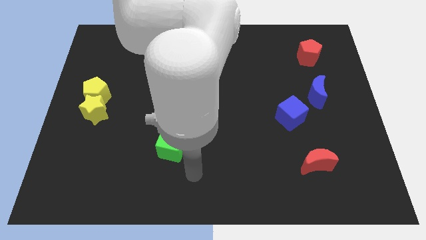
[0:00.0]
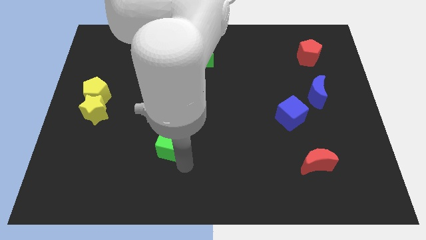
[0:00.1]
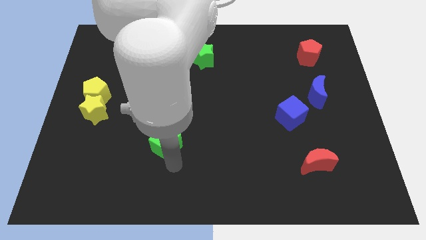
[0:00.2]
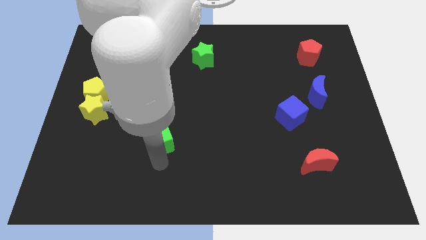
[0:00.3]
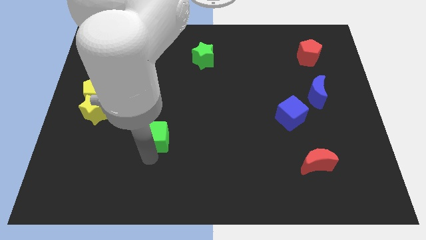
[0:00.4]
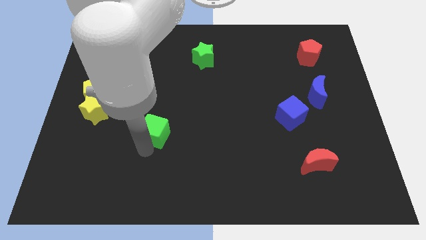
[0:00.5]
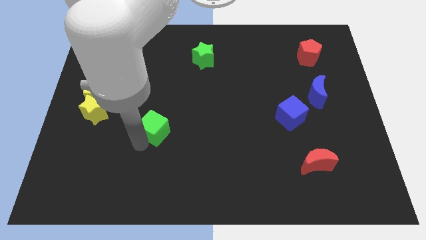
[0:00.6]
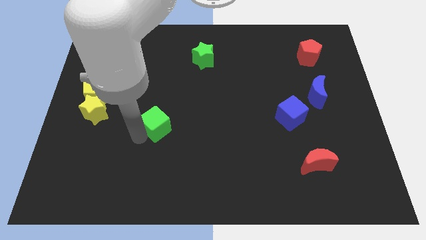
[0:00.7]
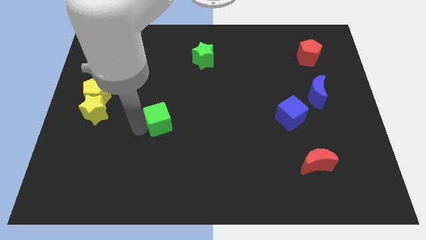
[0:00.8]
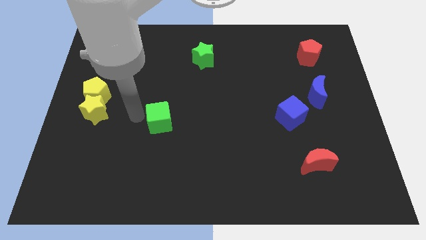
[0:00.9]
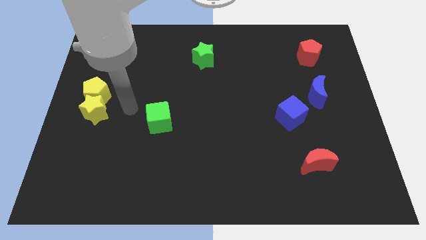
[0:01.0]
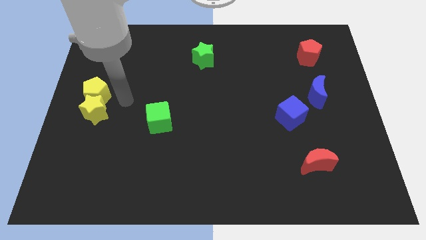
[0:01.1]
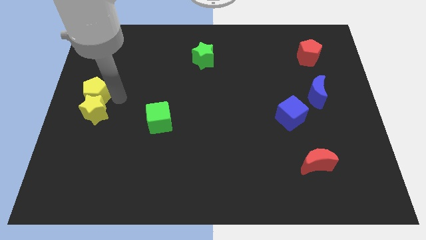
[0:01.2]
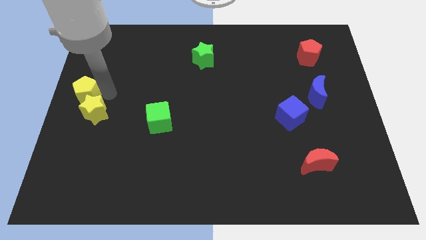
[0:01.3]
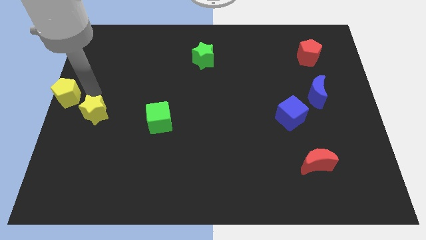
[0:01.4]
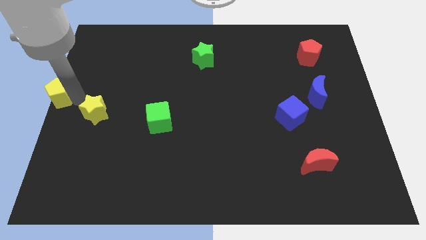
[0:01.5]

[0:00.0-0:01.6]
separate the yellow star from the yellow pentagon

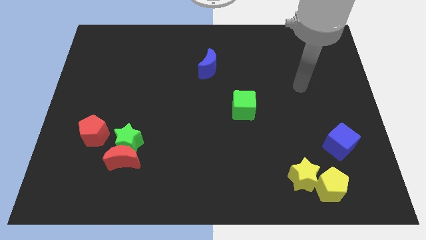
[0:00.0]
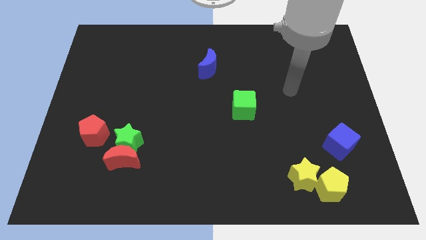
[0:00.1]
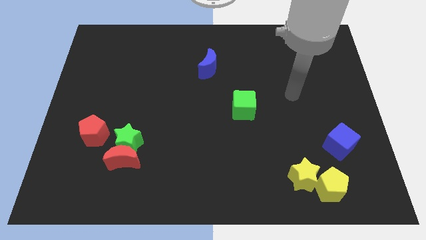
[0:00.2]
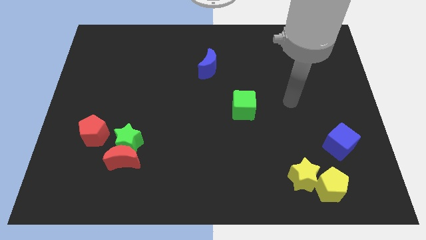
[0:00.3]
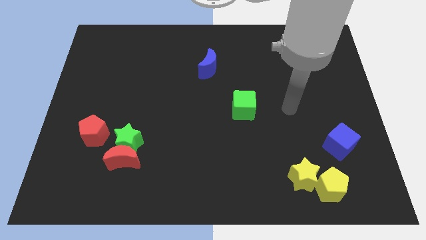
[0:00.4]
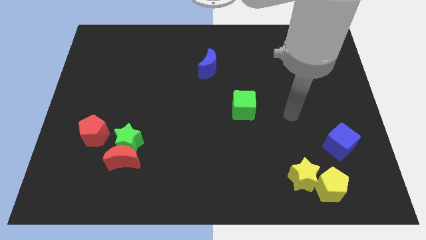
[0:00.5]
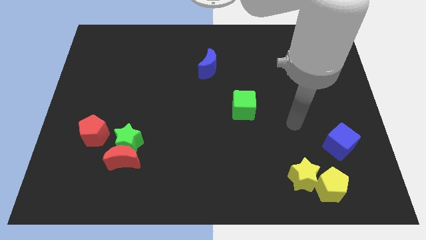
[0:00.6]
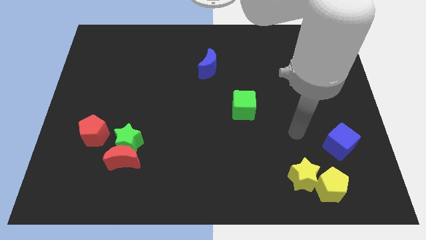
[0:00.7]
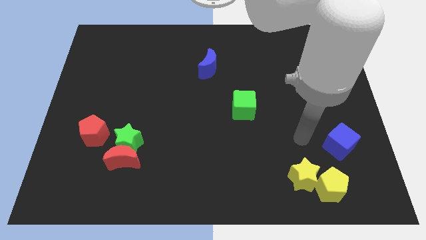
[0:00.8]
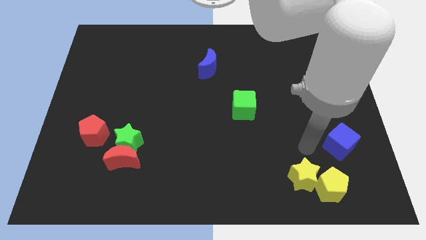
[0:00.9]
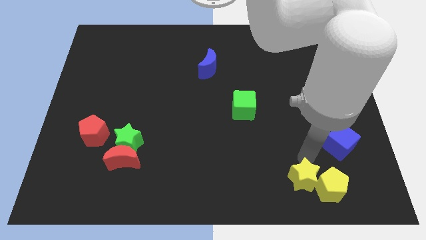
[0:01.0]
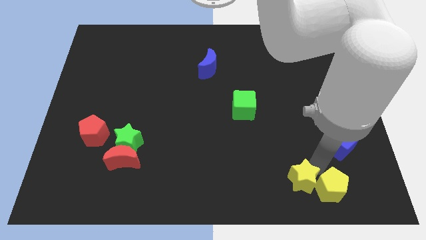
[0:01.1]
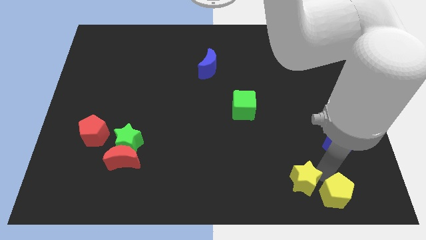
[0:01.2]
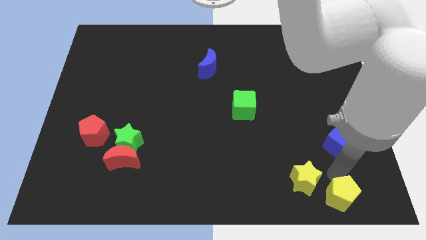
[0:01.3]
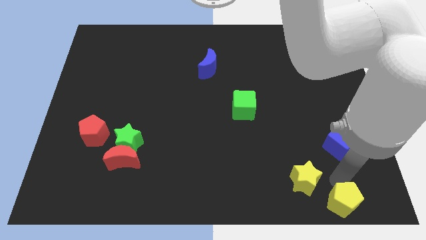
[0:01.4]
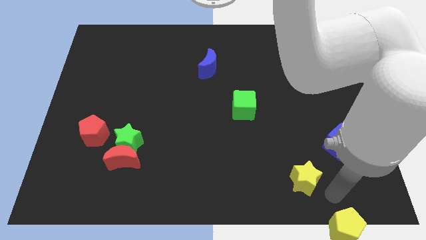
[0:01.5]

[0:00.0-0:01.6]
pull the yellow star apart from the yellow pentagon

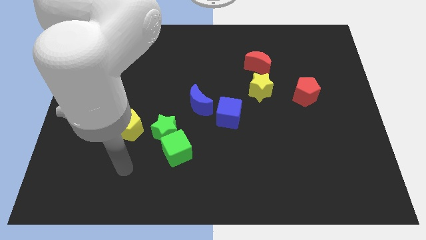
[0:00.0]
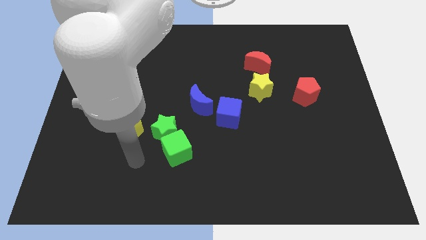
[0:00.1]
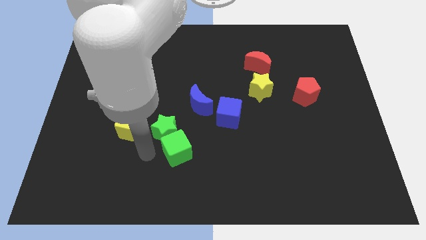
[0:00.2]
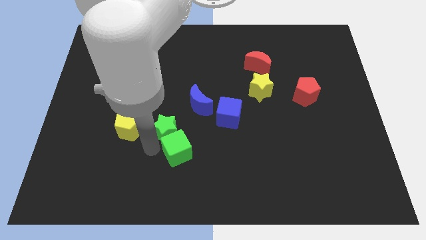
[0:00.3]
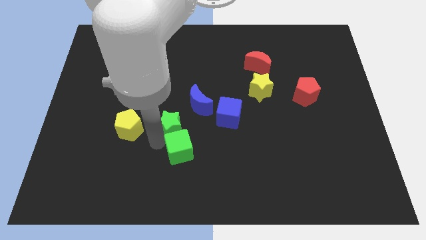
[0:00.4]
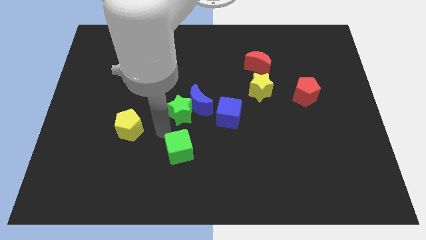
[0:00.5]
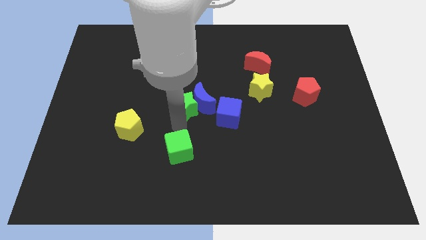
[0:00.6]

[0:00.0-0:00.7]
pull the green cube apart from the green star

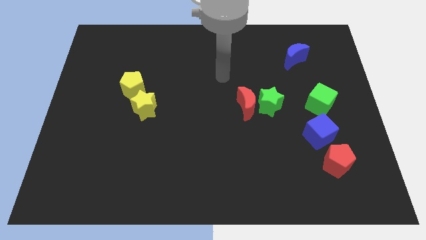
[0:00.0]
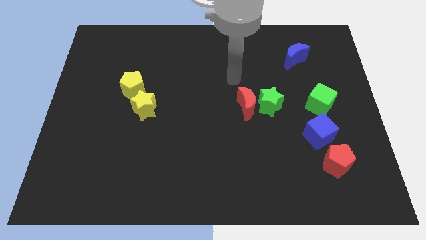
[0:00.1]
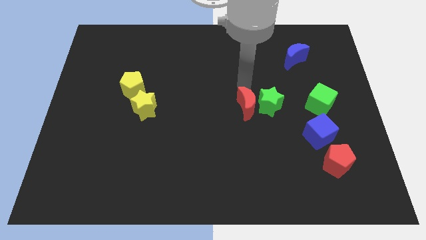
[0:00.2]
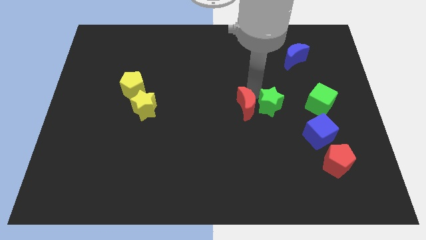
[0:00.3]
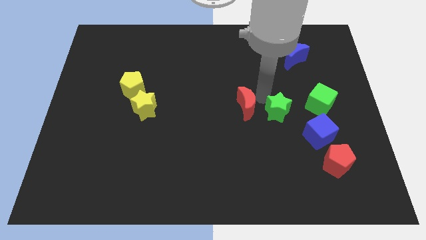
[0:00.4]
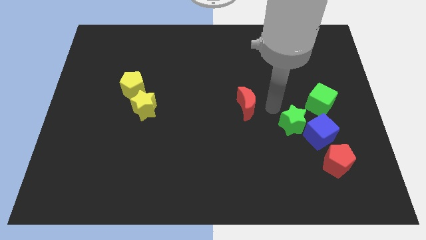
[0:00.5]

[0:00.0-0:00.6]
separate the red moon from the green star

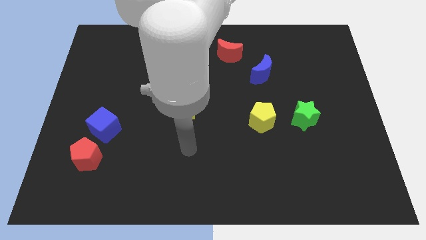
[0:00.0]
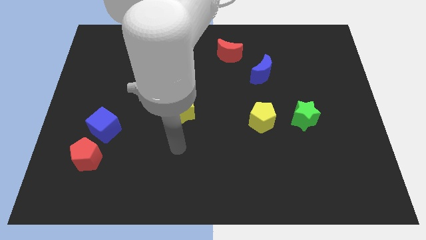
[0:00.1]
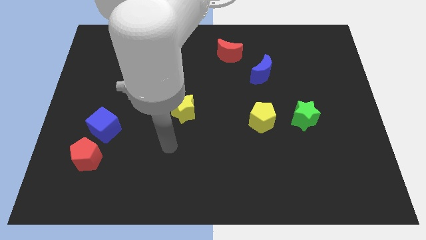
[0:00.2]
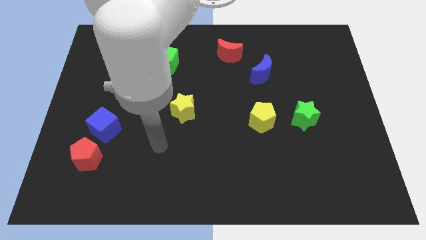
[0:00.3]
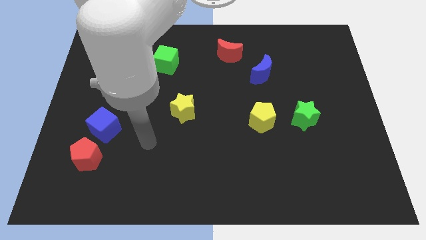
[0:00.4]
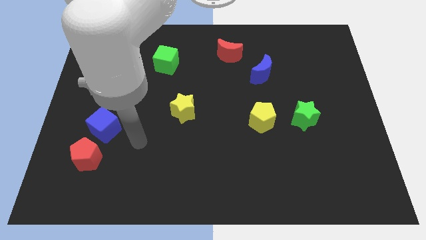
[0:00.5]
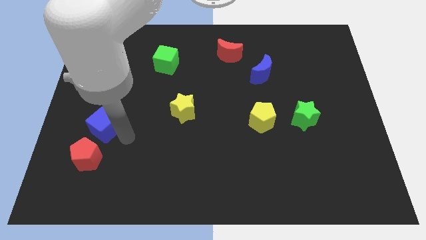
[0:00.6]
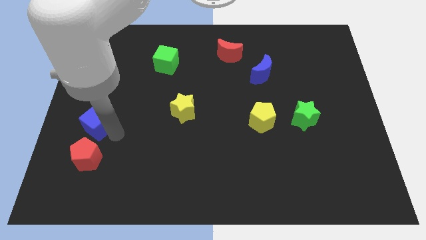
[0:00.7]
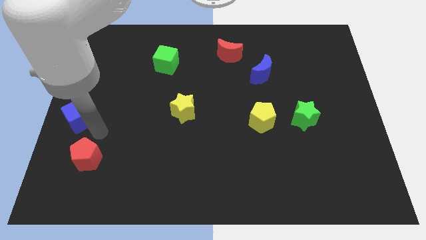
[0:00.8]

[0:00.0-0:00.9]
move the red pentagon away from the blue cube

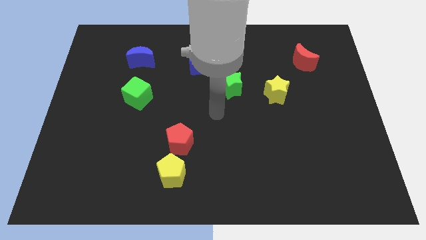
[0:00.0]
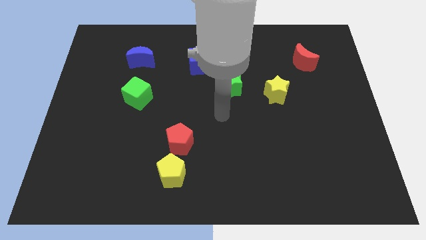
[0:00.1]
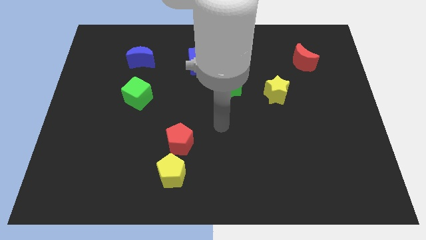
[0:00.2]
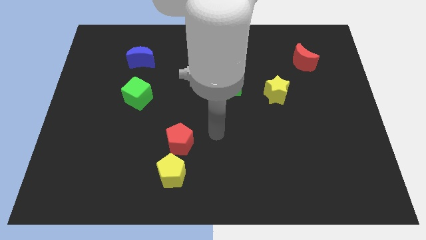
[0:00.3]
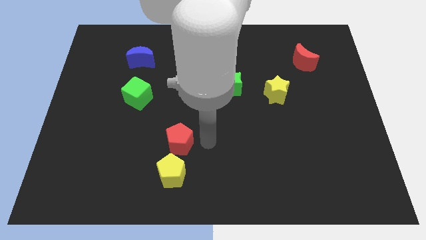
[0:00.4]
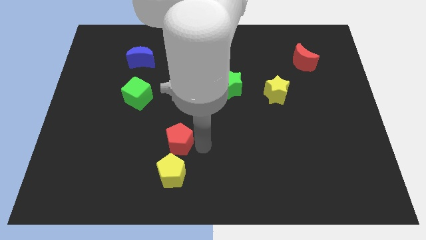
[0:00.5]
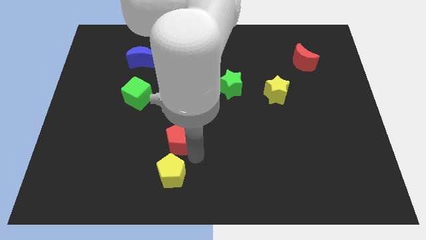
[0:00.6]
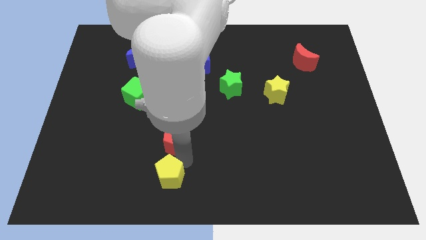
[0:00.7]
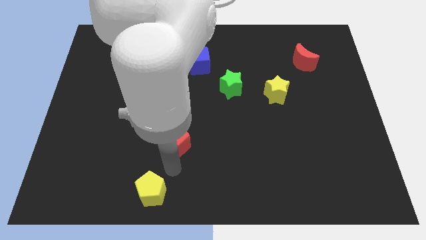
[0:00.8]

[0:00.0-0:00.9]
separate the red pentagon from the yellow pentagon

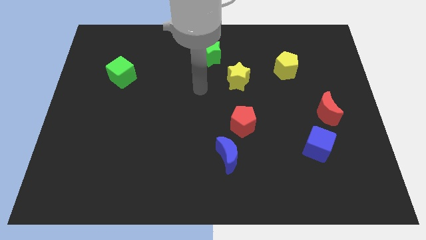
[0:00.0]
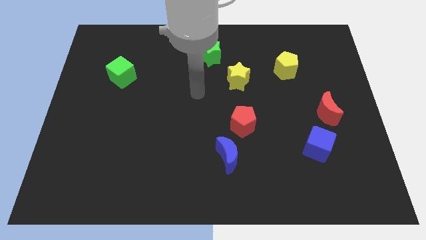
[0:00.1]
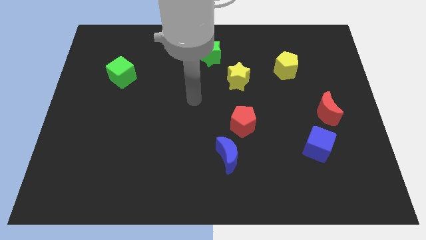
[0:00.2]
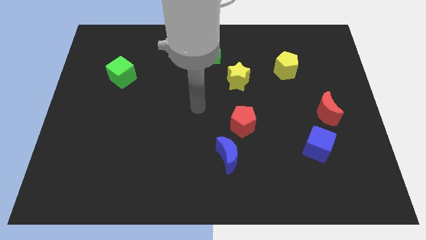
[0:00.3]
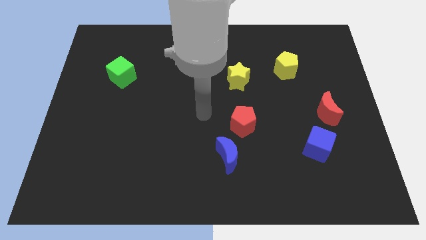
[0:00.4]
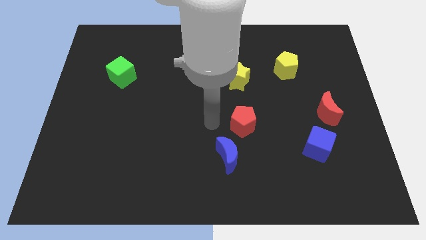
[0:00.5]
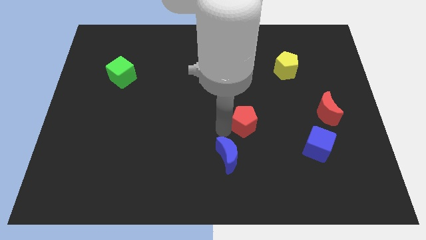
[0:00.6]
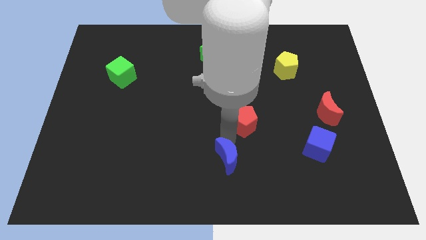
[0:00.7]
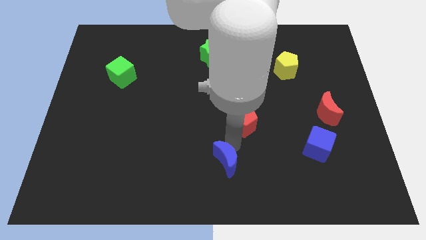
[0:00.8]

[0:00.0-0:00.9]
separate the red pentagon from the blue moon

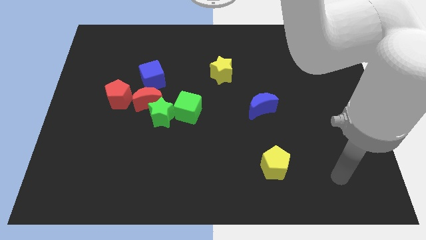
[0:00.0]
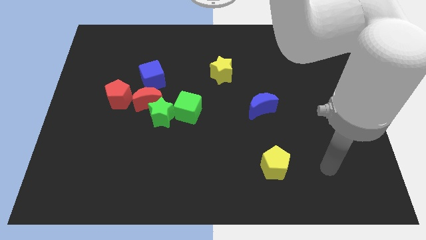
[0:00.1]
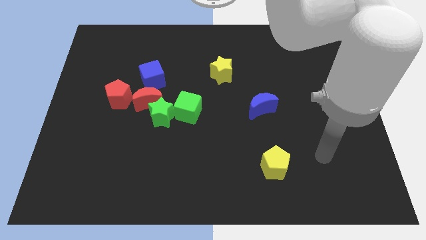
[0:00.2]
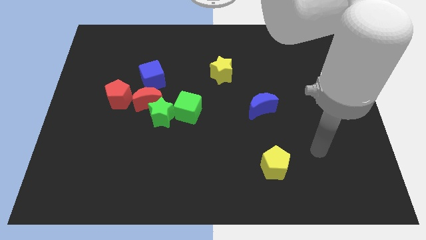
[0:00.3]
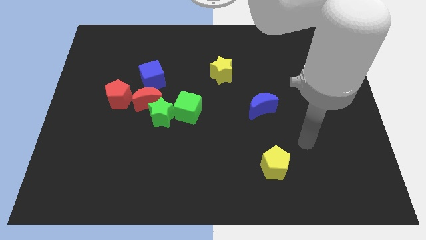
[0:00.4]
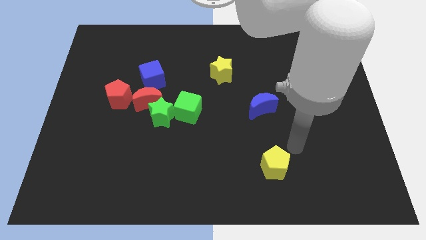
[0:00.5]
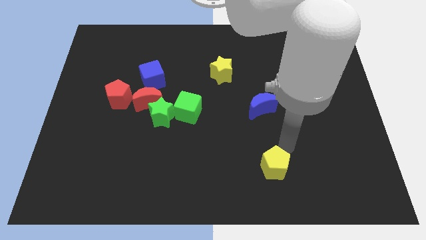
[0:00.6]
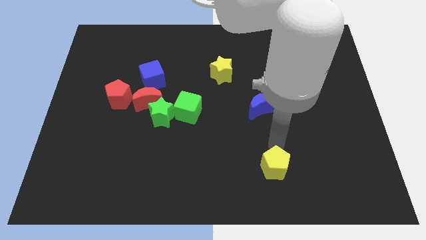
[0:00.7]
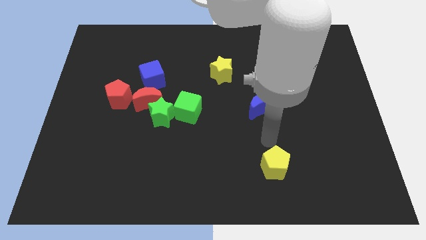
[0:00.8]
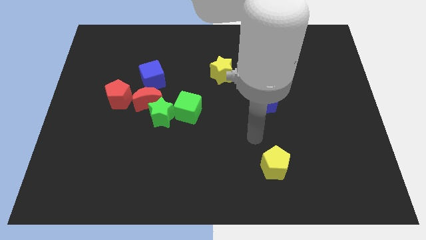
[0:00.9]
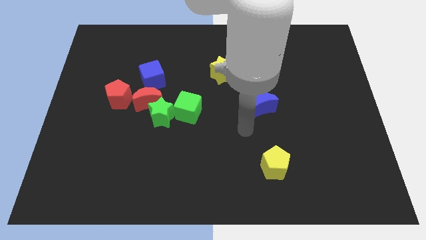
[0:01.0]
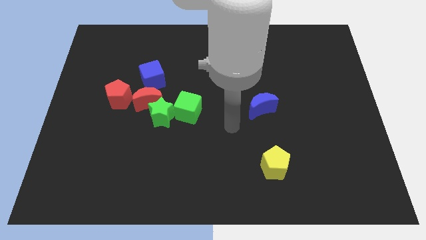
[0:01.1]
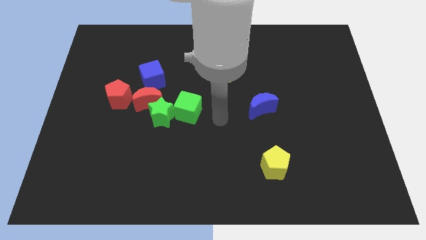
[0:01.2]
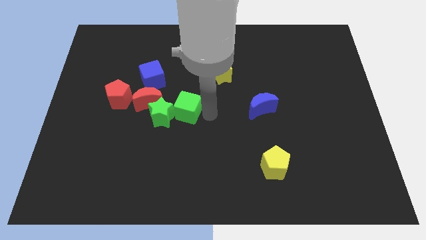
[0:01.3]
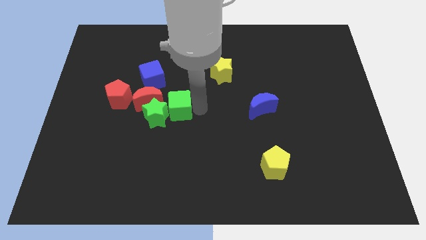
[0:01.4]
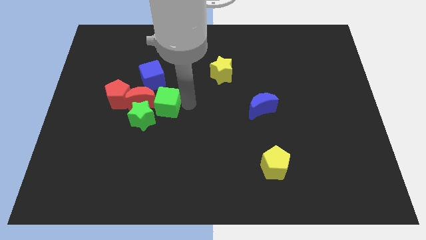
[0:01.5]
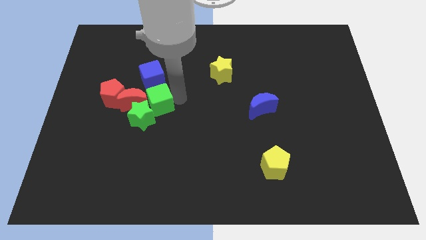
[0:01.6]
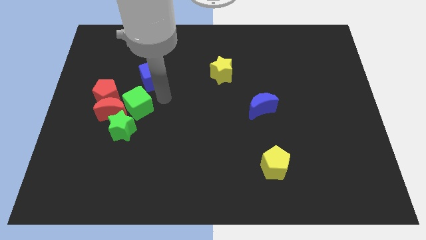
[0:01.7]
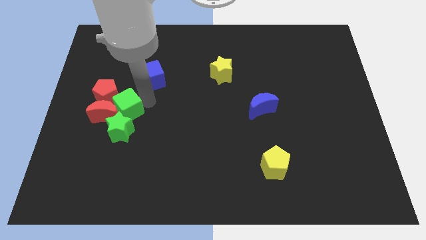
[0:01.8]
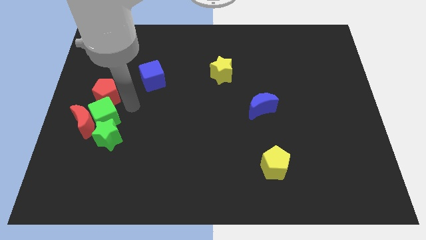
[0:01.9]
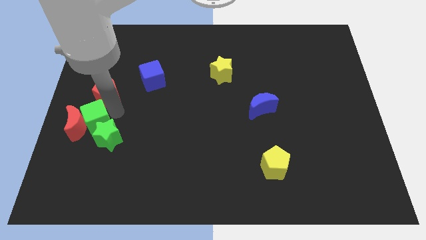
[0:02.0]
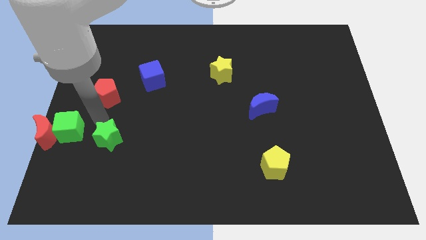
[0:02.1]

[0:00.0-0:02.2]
separate the green star from the red moon and green cube
